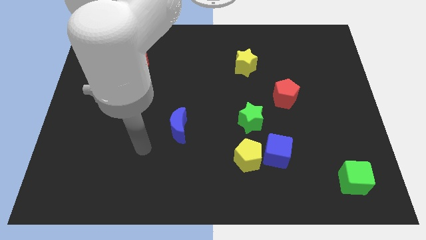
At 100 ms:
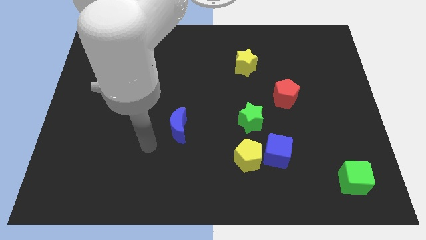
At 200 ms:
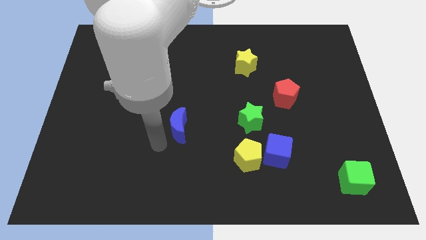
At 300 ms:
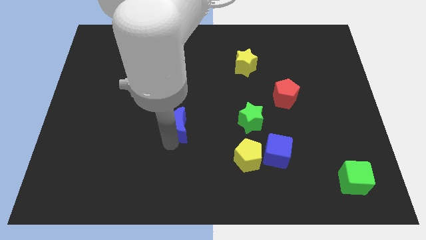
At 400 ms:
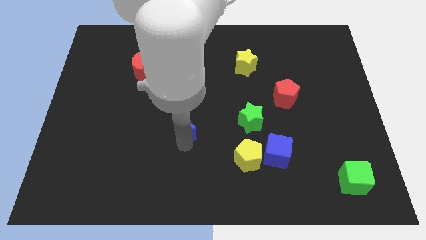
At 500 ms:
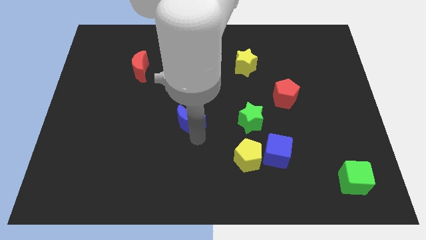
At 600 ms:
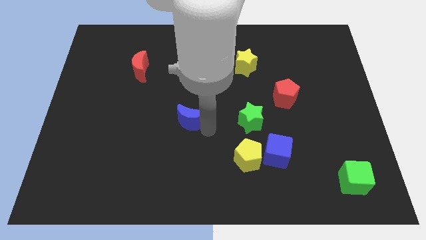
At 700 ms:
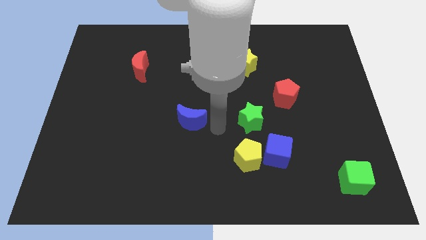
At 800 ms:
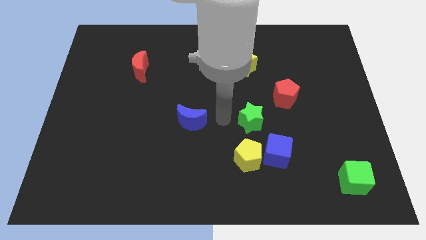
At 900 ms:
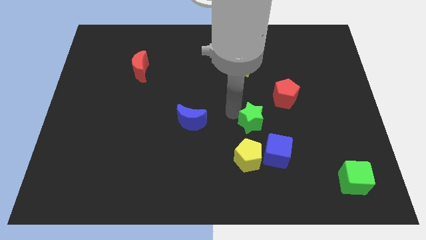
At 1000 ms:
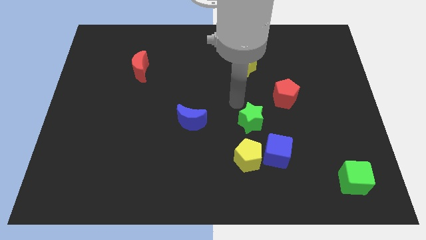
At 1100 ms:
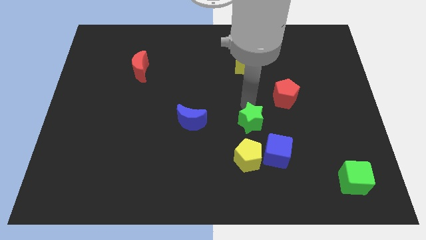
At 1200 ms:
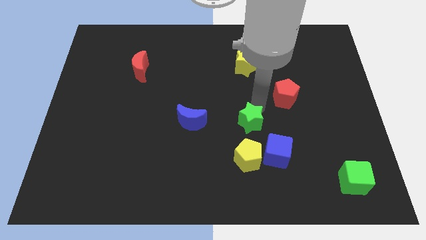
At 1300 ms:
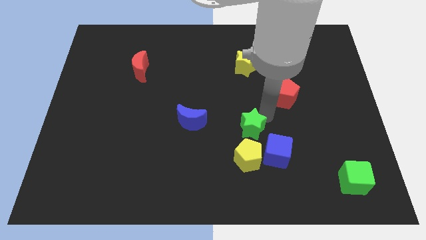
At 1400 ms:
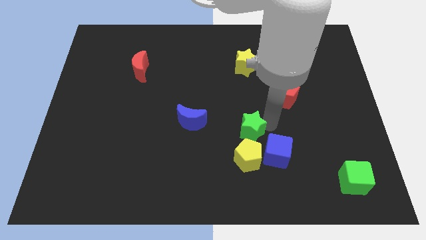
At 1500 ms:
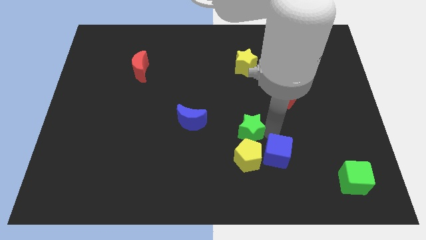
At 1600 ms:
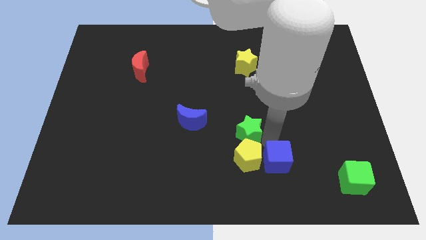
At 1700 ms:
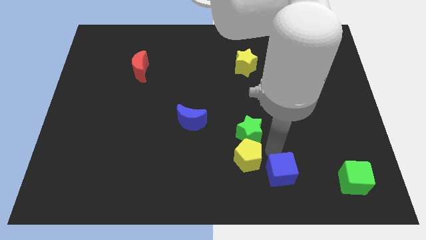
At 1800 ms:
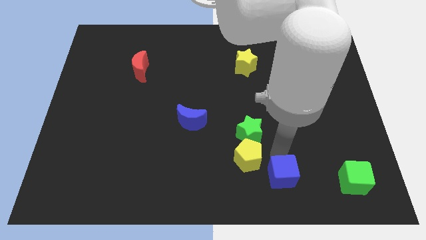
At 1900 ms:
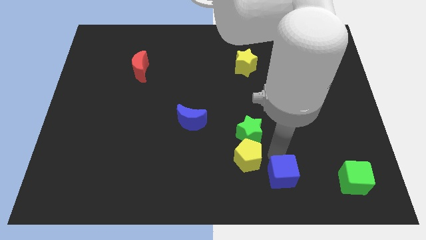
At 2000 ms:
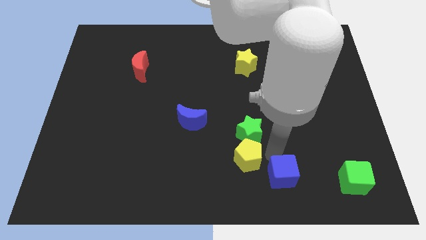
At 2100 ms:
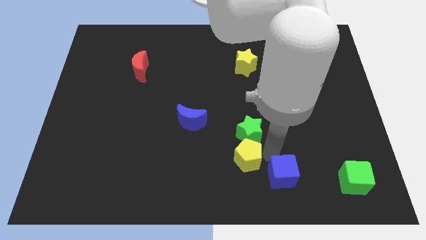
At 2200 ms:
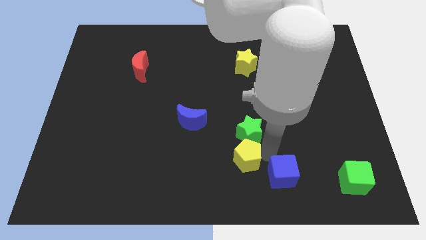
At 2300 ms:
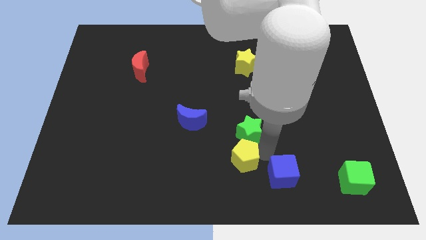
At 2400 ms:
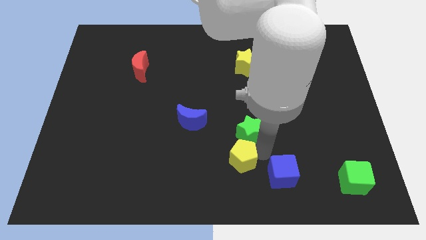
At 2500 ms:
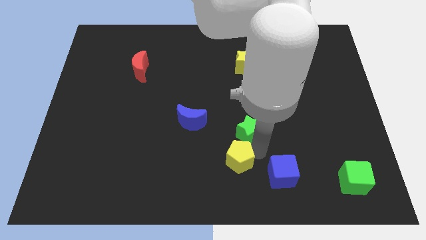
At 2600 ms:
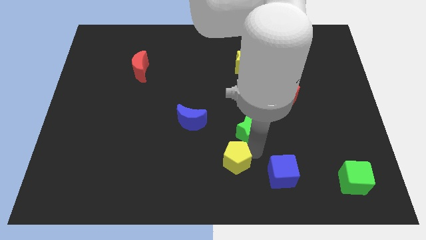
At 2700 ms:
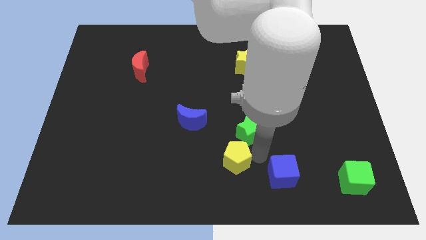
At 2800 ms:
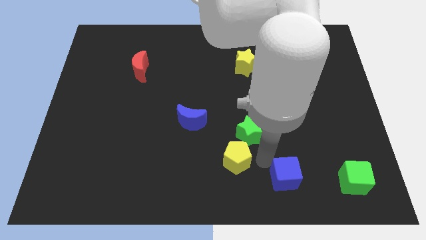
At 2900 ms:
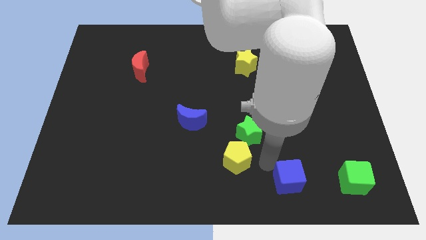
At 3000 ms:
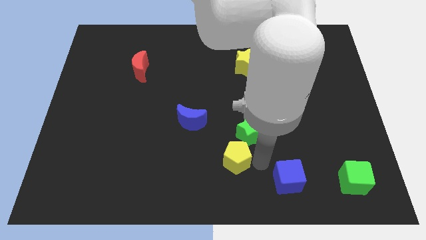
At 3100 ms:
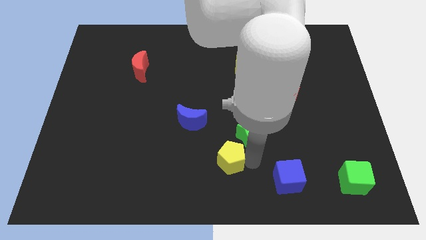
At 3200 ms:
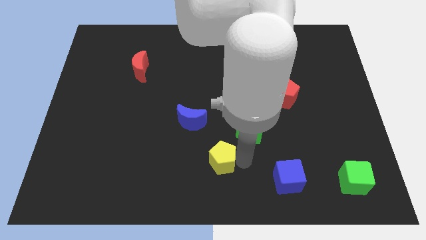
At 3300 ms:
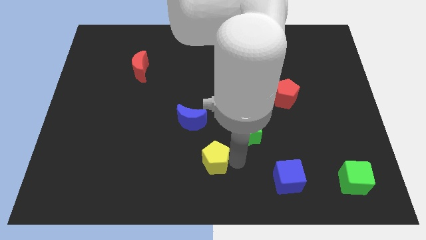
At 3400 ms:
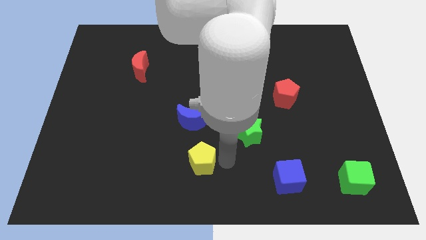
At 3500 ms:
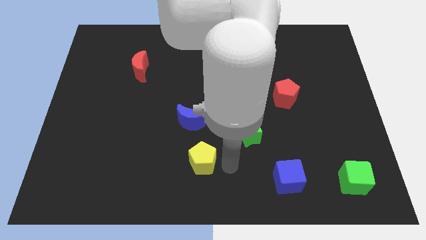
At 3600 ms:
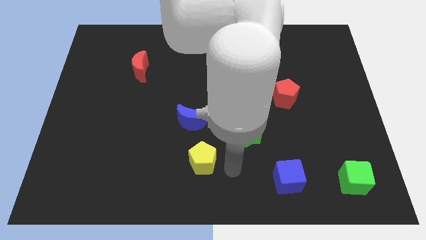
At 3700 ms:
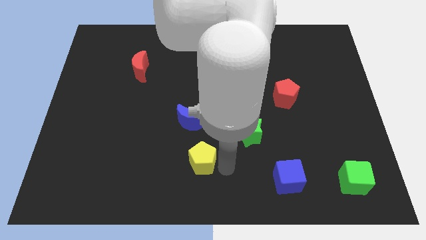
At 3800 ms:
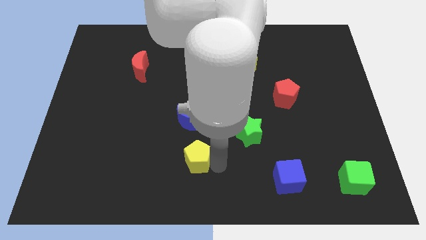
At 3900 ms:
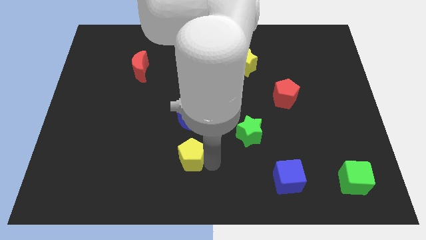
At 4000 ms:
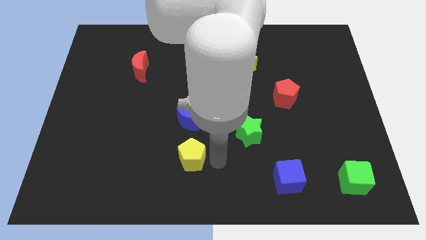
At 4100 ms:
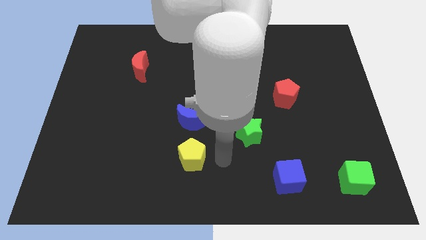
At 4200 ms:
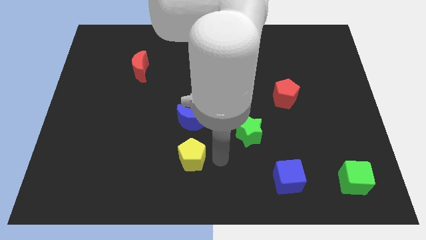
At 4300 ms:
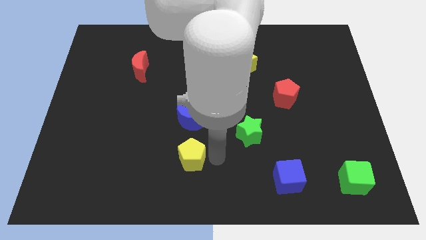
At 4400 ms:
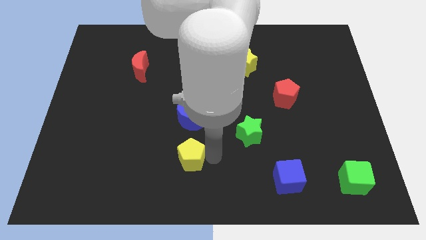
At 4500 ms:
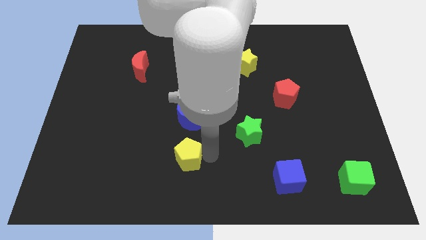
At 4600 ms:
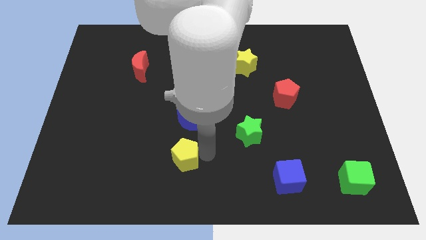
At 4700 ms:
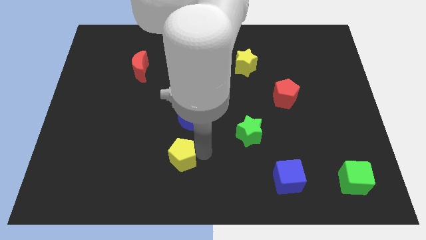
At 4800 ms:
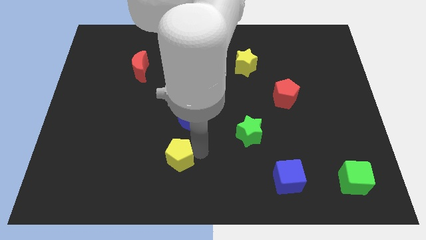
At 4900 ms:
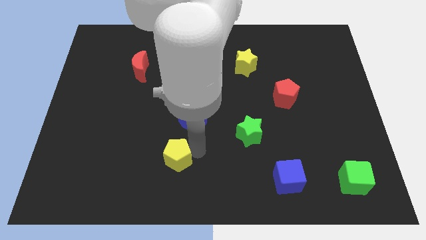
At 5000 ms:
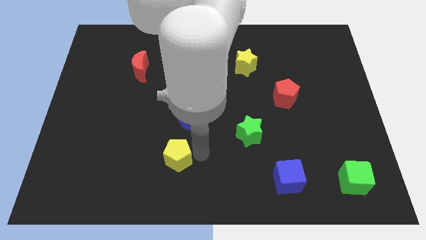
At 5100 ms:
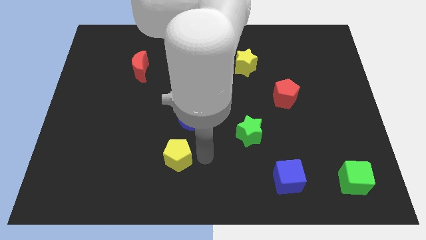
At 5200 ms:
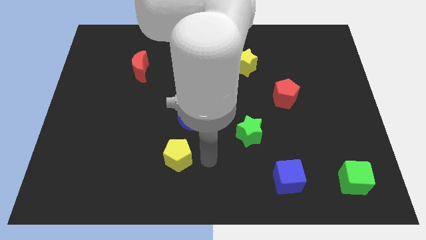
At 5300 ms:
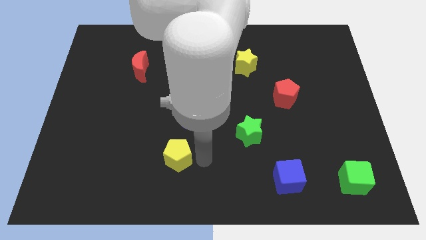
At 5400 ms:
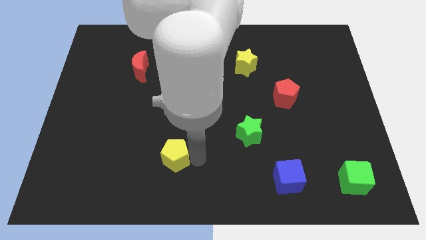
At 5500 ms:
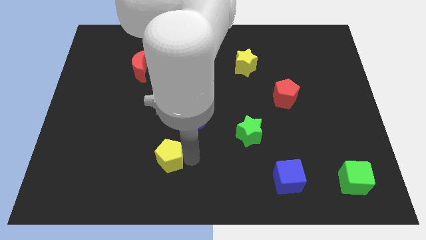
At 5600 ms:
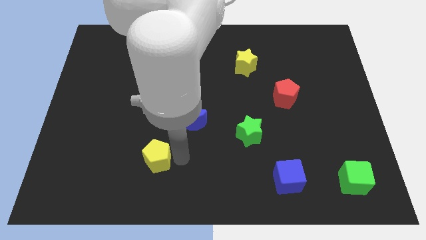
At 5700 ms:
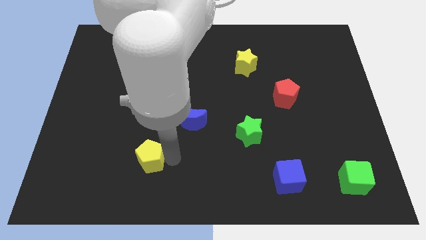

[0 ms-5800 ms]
push the yellow pentagon left

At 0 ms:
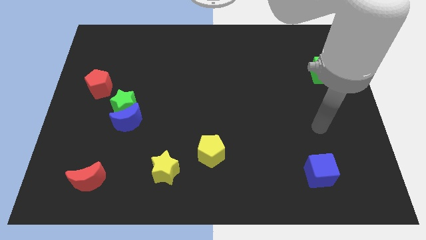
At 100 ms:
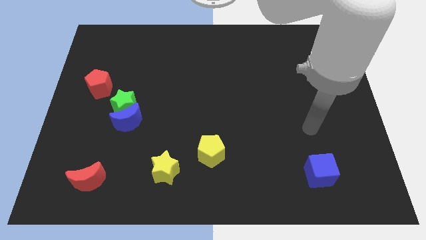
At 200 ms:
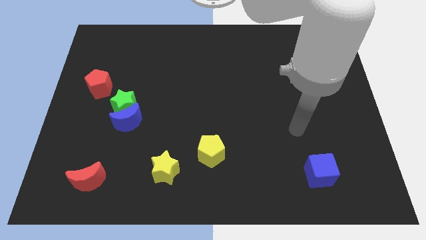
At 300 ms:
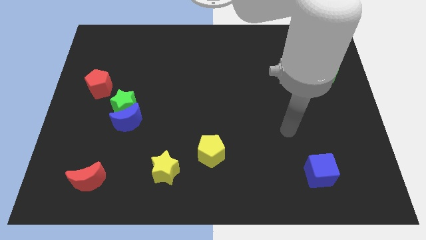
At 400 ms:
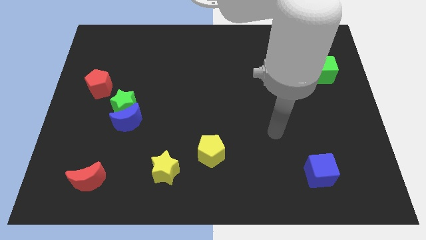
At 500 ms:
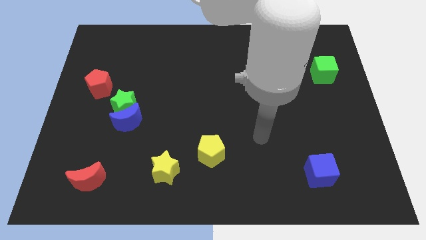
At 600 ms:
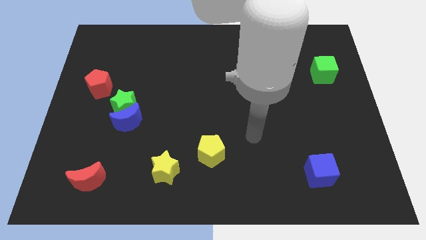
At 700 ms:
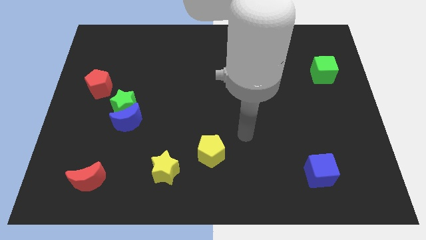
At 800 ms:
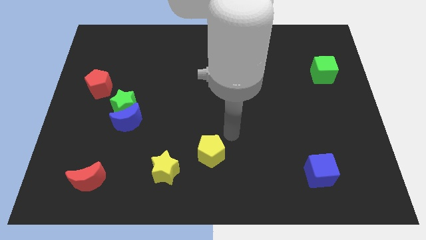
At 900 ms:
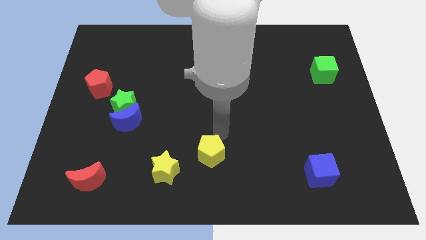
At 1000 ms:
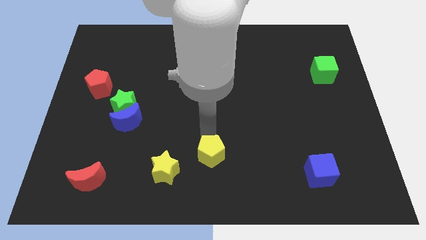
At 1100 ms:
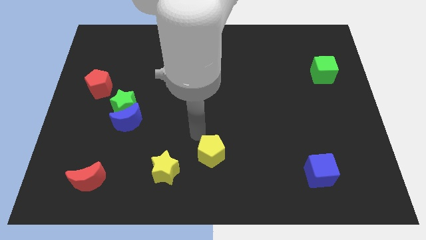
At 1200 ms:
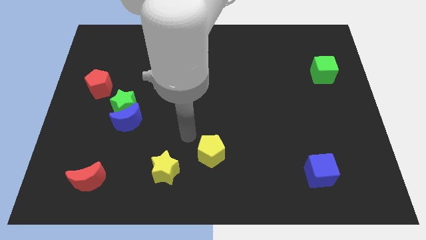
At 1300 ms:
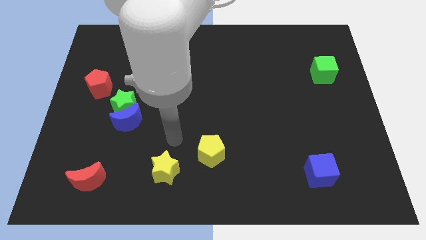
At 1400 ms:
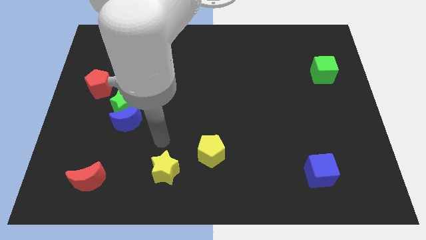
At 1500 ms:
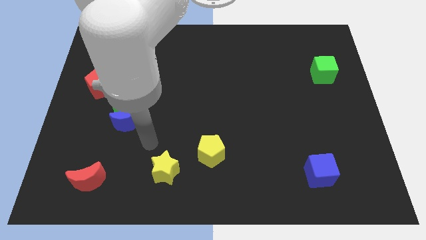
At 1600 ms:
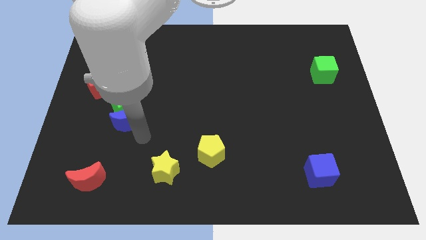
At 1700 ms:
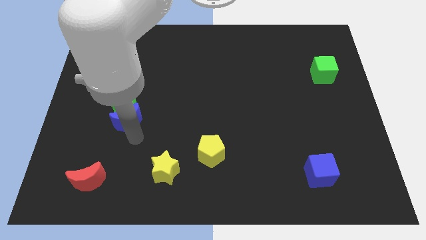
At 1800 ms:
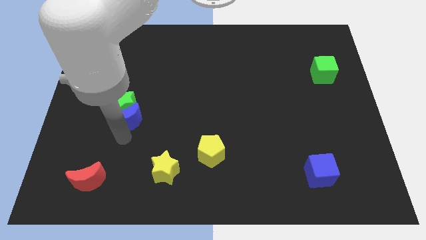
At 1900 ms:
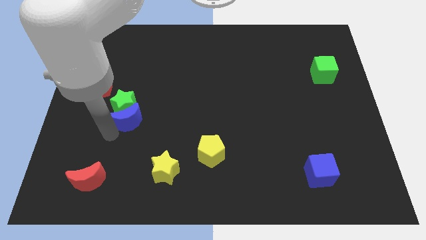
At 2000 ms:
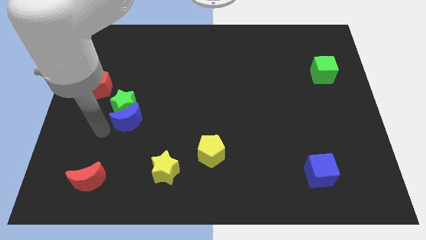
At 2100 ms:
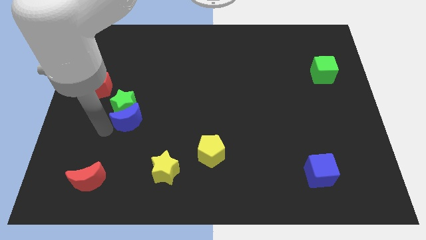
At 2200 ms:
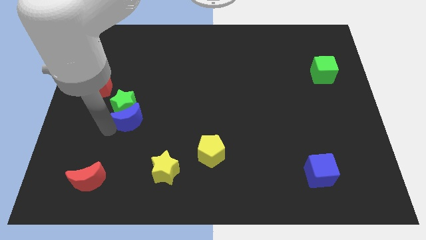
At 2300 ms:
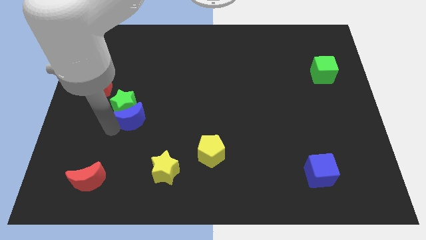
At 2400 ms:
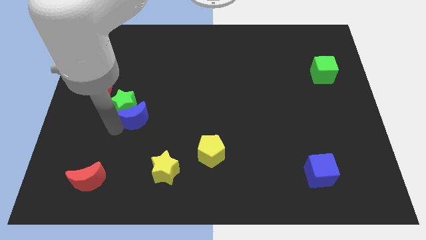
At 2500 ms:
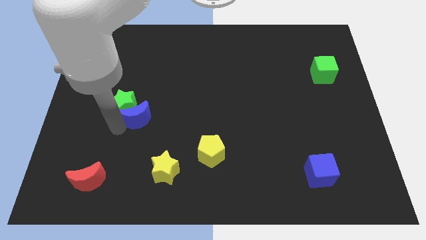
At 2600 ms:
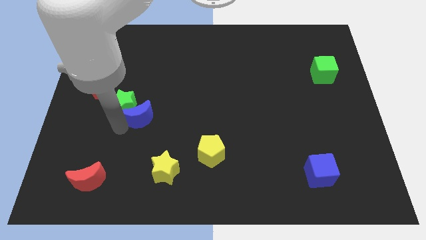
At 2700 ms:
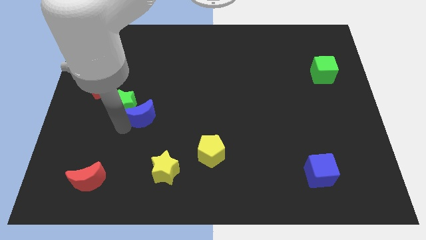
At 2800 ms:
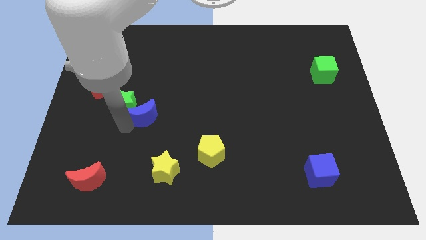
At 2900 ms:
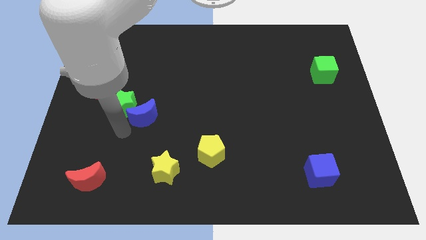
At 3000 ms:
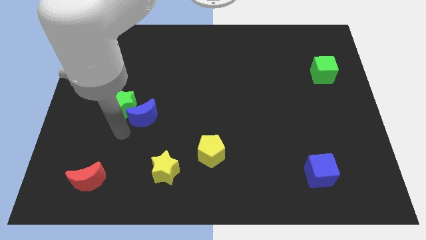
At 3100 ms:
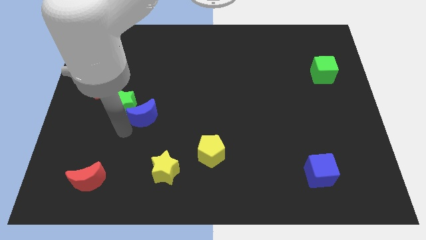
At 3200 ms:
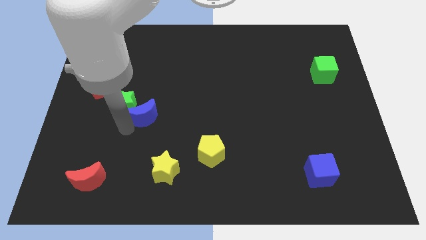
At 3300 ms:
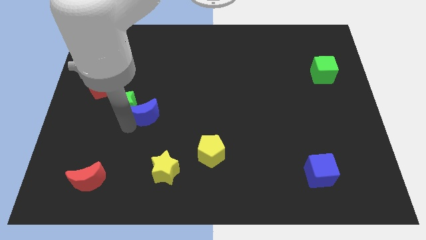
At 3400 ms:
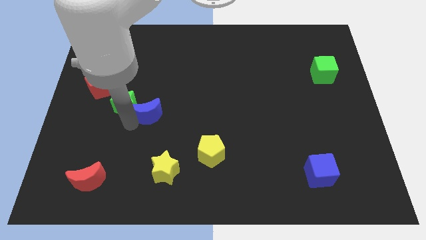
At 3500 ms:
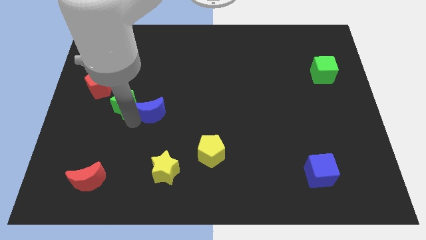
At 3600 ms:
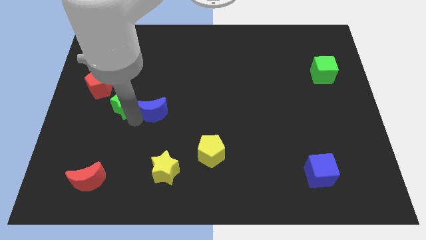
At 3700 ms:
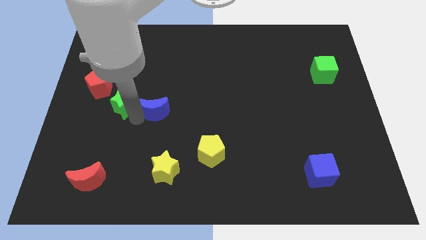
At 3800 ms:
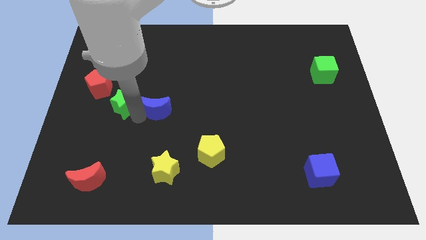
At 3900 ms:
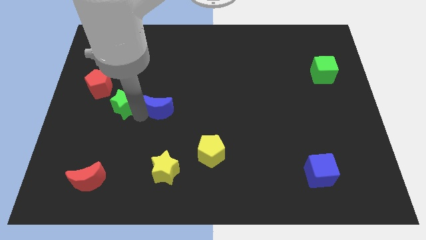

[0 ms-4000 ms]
push the blue moon diagonally upwards and right a bit
